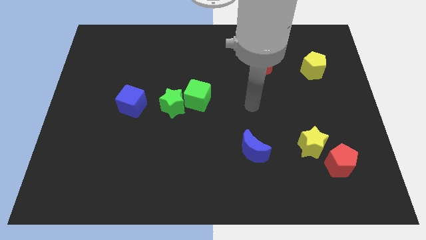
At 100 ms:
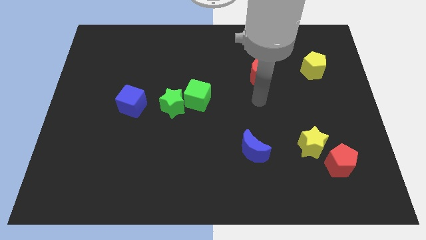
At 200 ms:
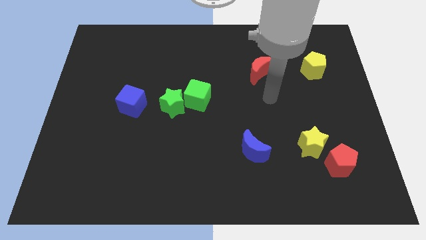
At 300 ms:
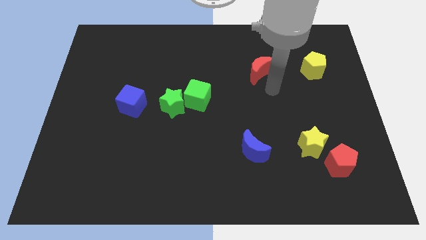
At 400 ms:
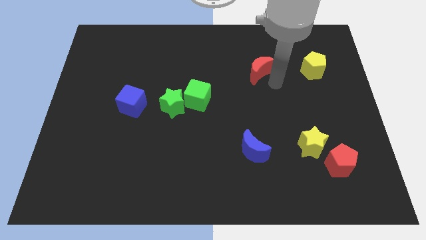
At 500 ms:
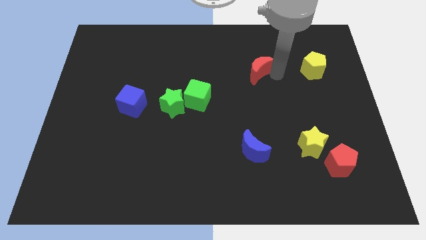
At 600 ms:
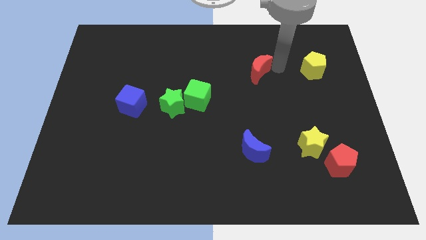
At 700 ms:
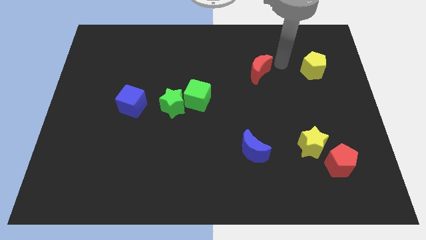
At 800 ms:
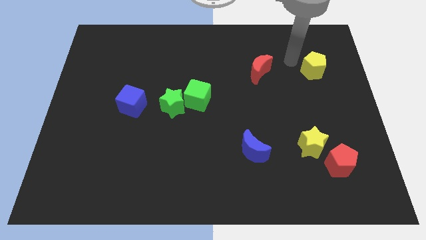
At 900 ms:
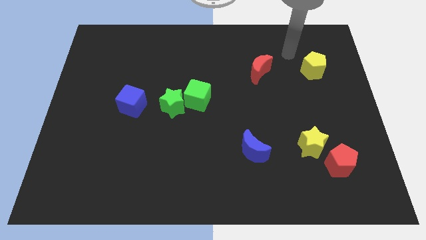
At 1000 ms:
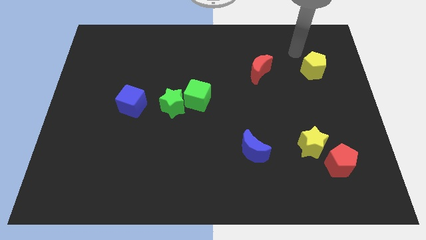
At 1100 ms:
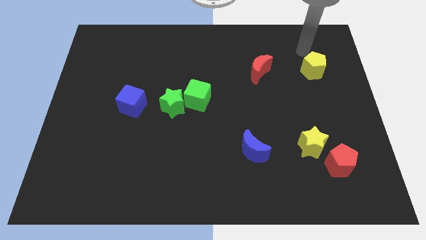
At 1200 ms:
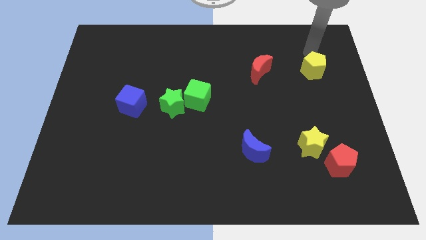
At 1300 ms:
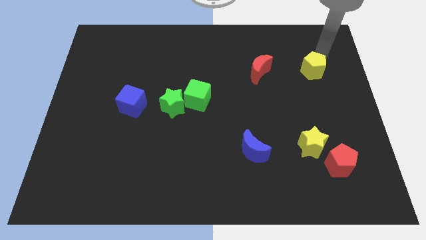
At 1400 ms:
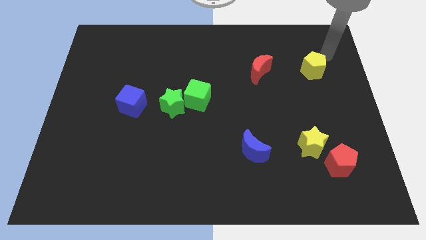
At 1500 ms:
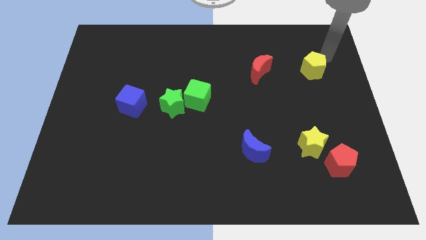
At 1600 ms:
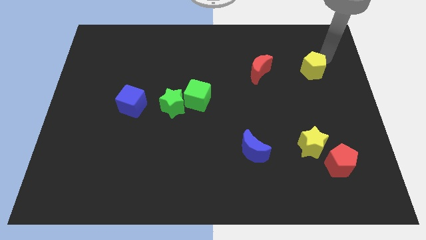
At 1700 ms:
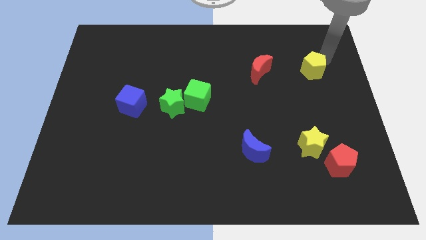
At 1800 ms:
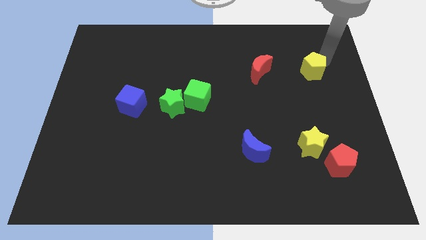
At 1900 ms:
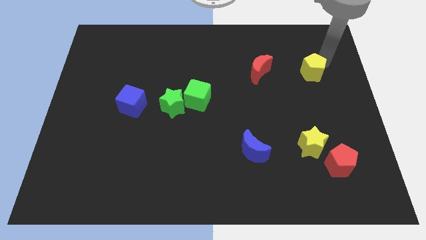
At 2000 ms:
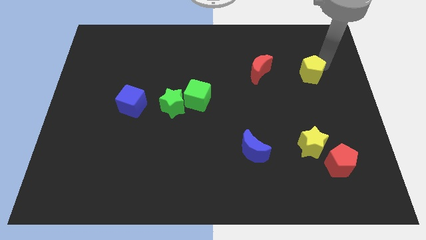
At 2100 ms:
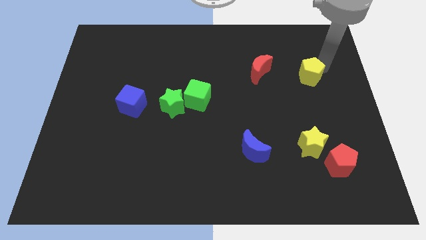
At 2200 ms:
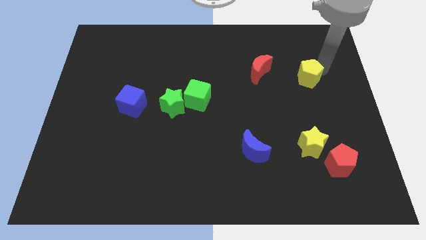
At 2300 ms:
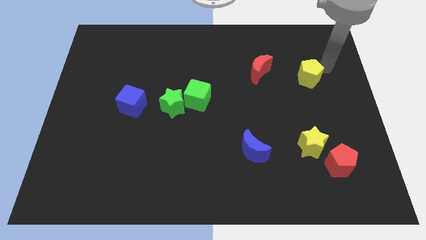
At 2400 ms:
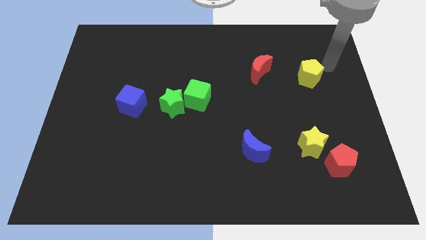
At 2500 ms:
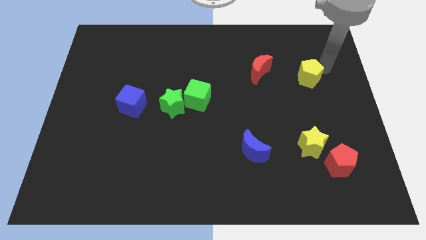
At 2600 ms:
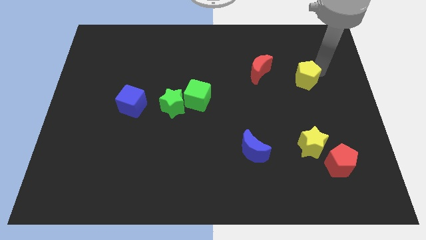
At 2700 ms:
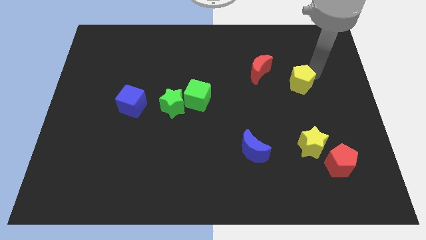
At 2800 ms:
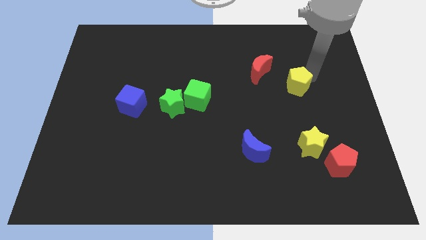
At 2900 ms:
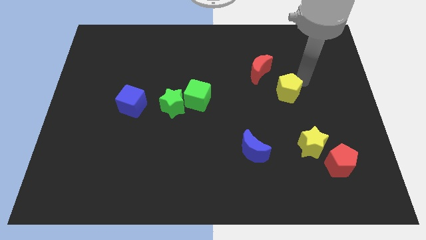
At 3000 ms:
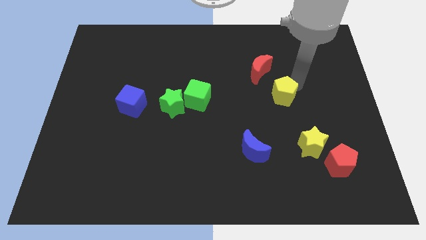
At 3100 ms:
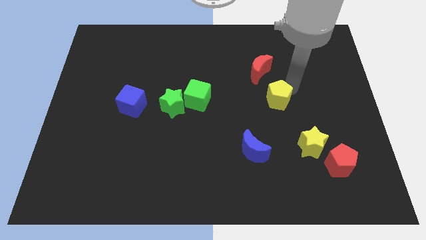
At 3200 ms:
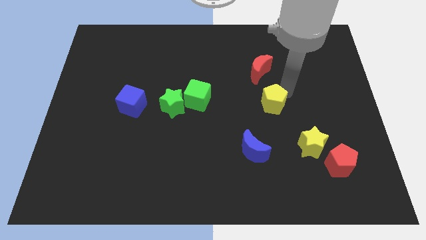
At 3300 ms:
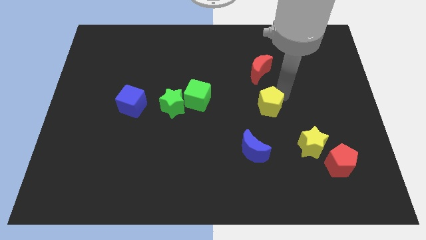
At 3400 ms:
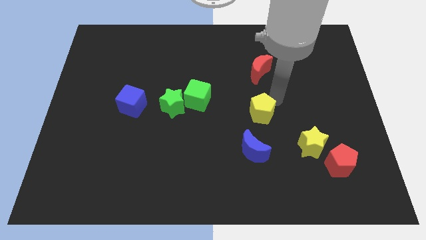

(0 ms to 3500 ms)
move the yellow pentagon down and left diagonally

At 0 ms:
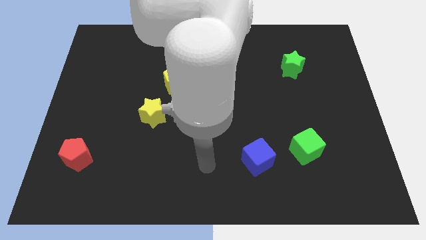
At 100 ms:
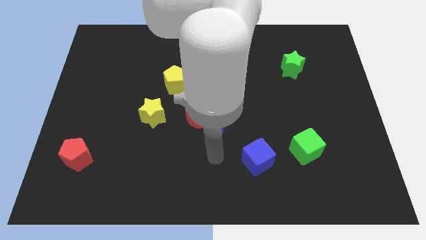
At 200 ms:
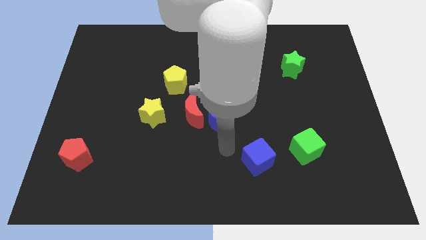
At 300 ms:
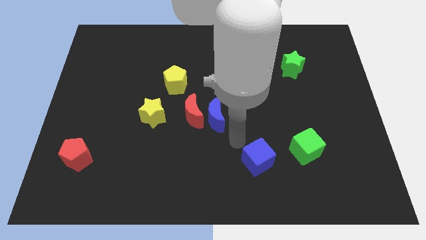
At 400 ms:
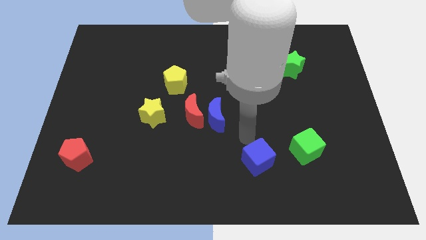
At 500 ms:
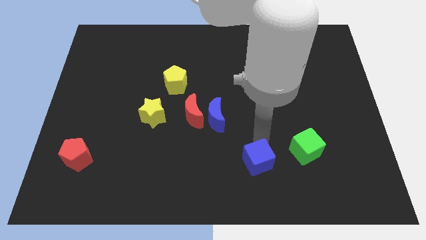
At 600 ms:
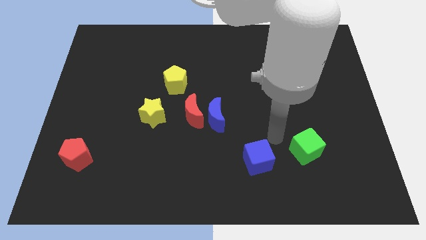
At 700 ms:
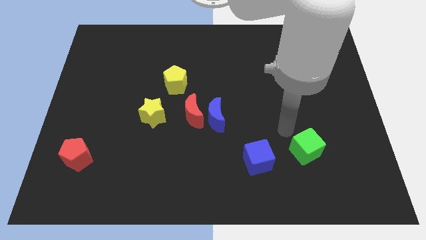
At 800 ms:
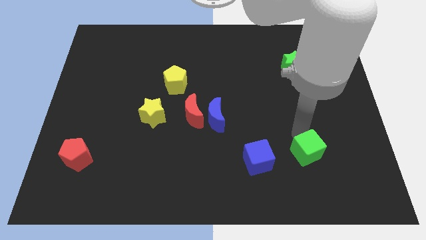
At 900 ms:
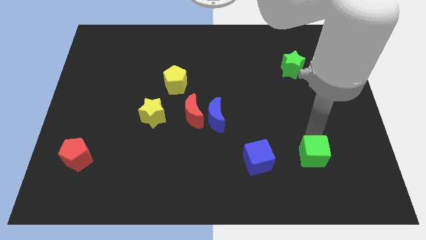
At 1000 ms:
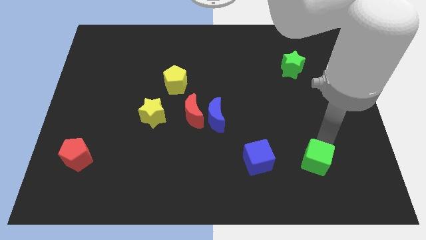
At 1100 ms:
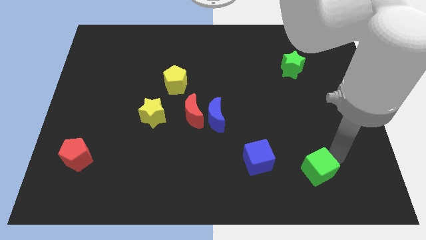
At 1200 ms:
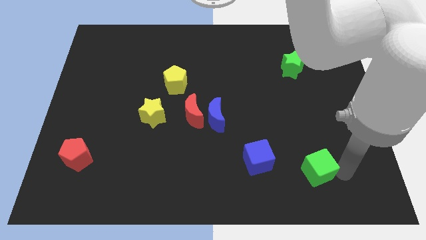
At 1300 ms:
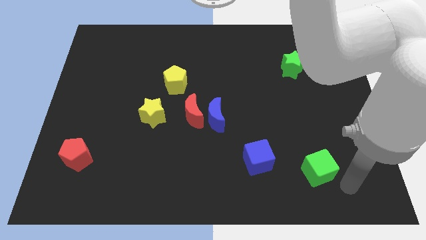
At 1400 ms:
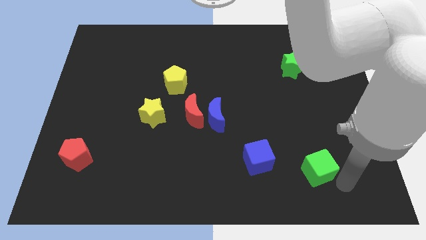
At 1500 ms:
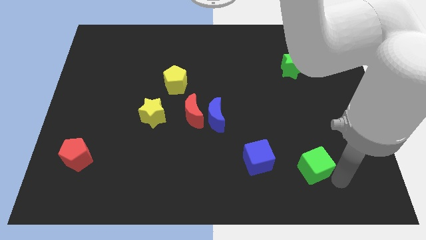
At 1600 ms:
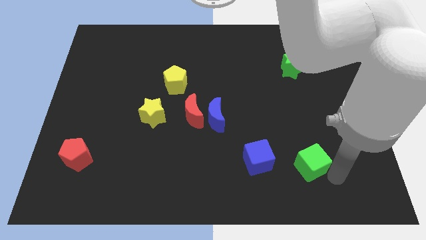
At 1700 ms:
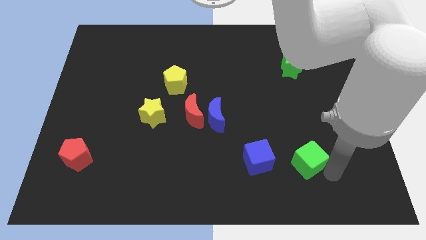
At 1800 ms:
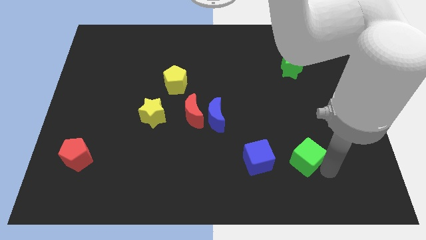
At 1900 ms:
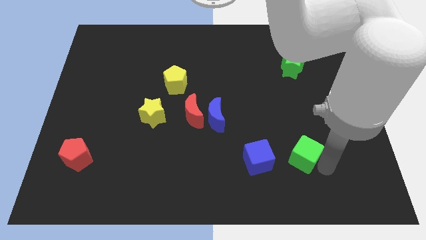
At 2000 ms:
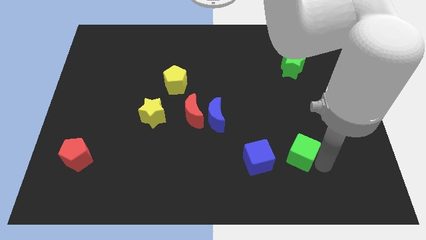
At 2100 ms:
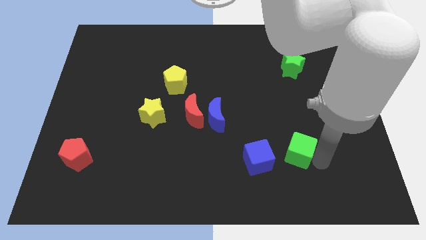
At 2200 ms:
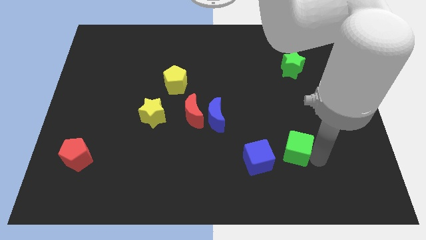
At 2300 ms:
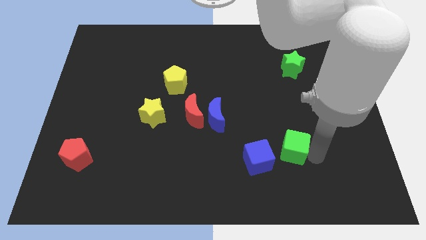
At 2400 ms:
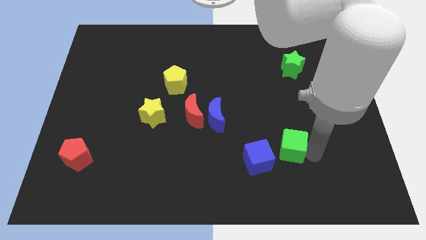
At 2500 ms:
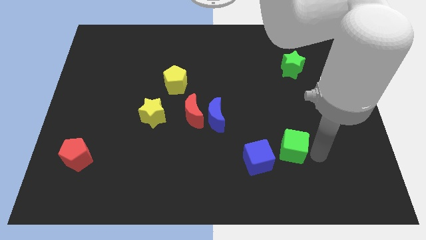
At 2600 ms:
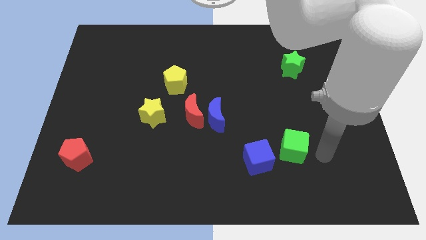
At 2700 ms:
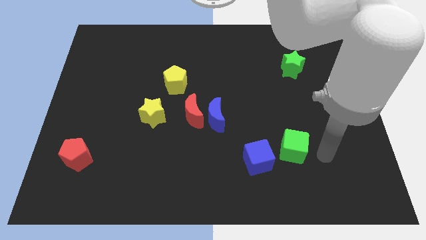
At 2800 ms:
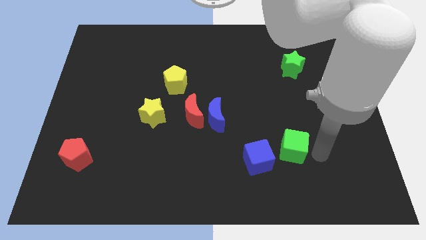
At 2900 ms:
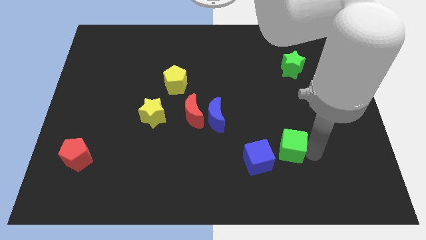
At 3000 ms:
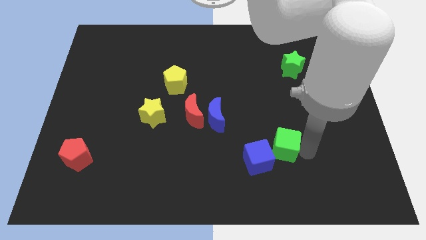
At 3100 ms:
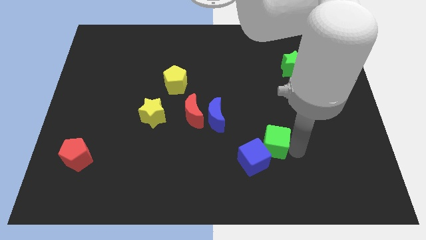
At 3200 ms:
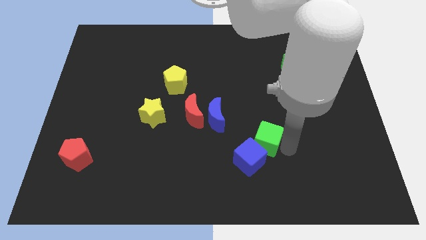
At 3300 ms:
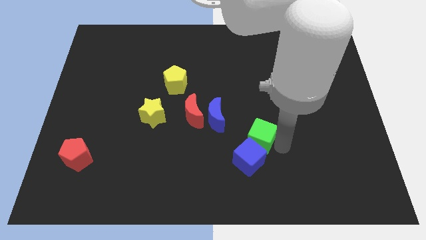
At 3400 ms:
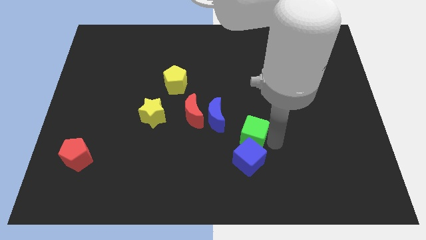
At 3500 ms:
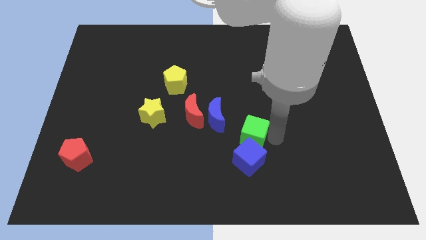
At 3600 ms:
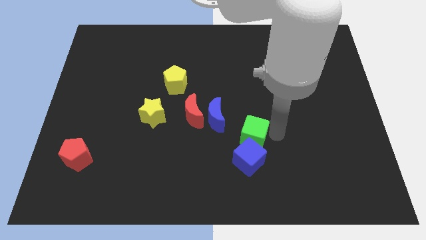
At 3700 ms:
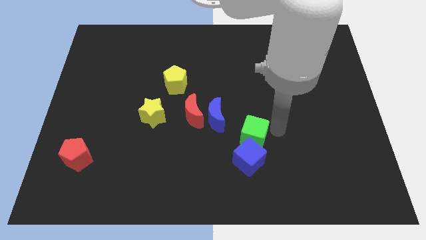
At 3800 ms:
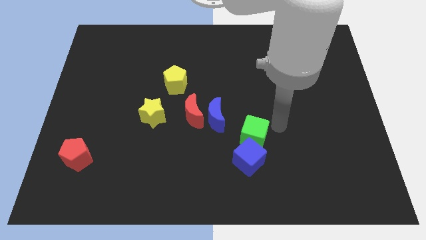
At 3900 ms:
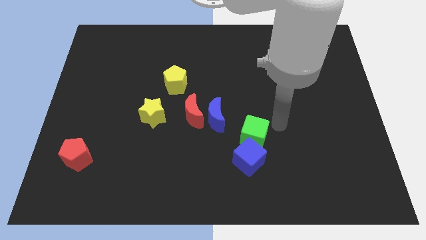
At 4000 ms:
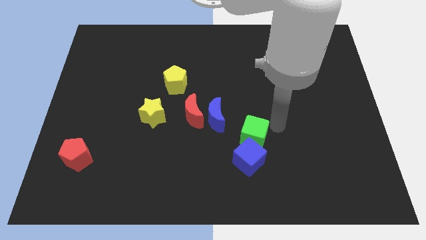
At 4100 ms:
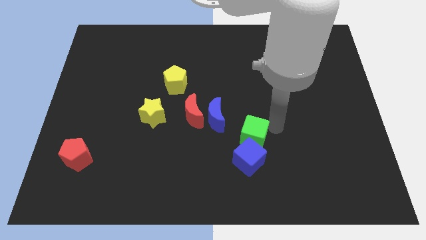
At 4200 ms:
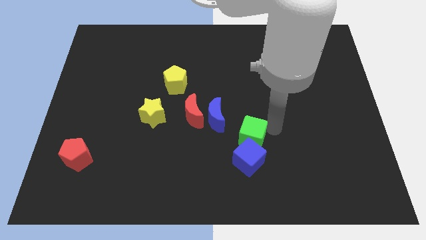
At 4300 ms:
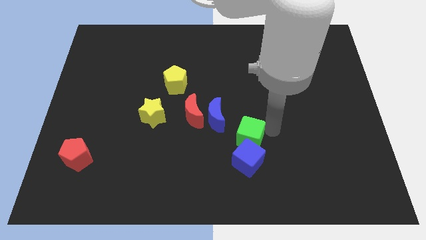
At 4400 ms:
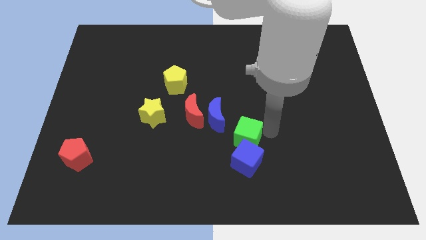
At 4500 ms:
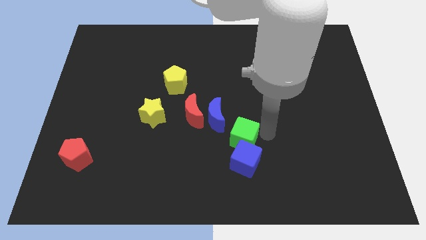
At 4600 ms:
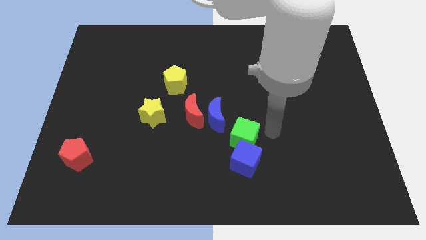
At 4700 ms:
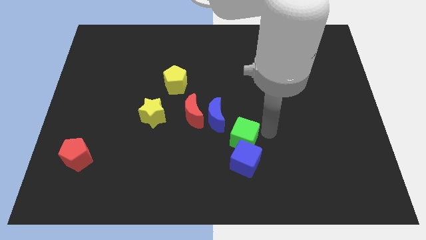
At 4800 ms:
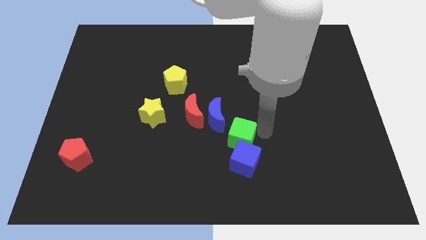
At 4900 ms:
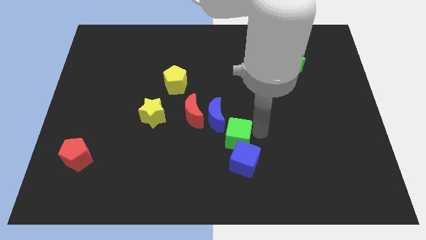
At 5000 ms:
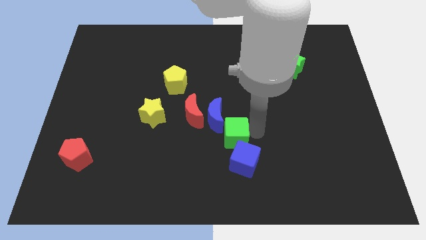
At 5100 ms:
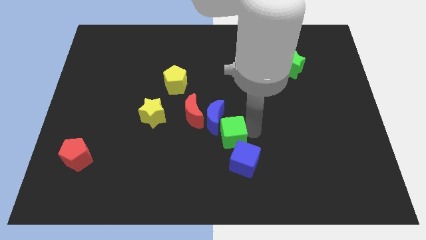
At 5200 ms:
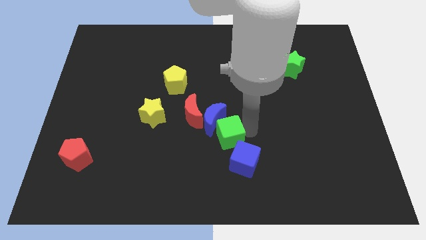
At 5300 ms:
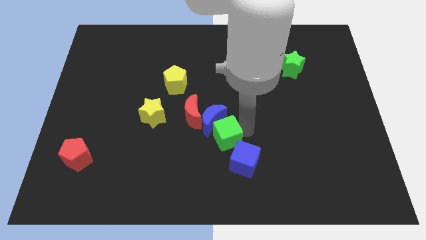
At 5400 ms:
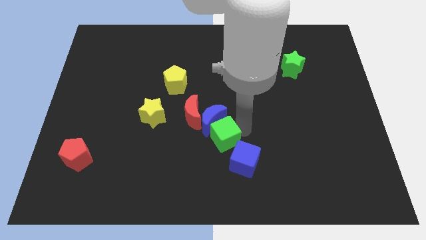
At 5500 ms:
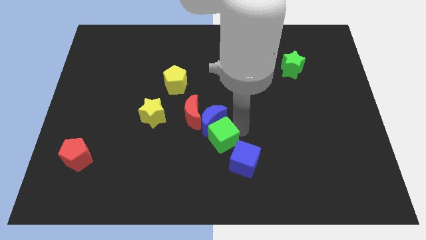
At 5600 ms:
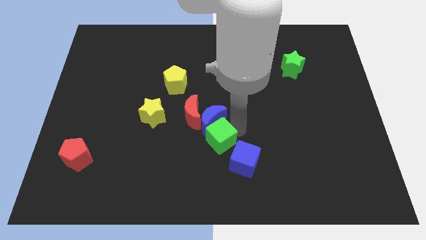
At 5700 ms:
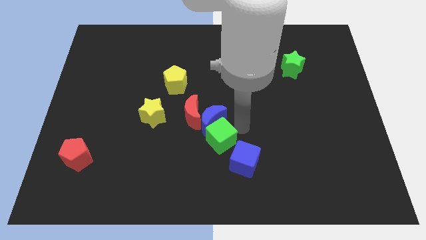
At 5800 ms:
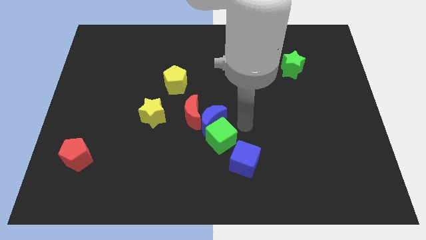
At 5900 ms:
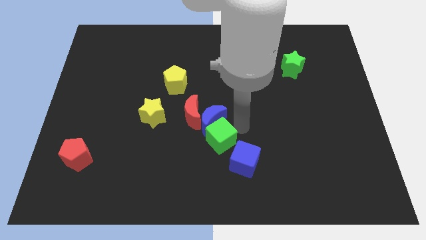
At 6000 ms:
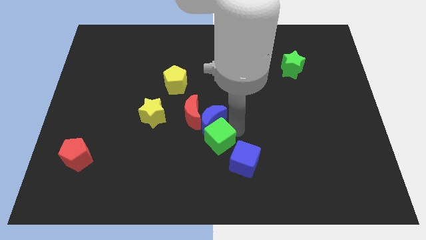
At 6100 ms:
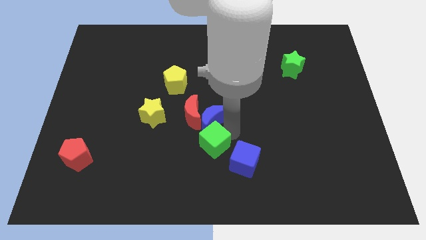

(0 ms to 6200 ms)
slide the green cube left
